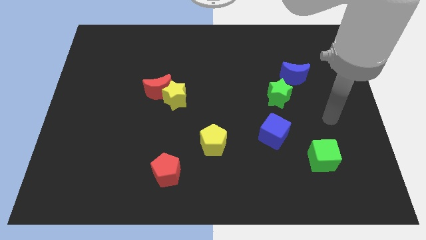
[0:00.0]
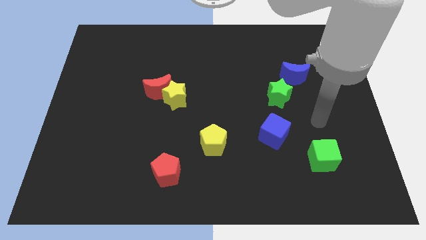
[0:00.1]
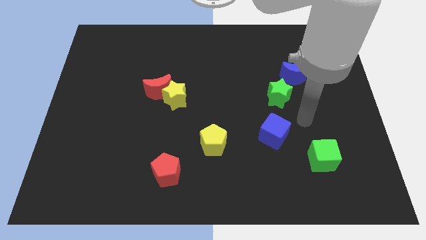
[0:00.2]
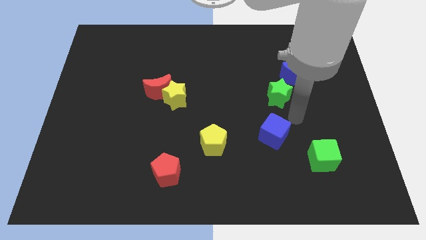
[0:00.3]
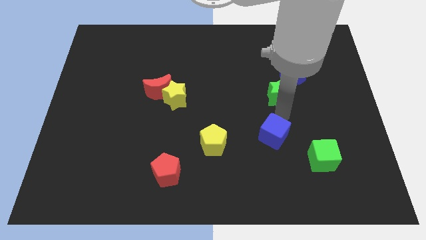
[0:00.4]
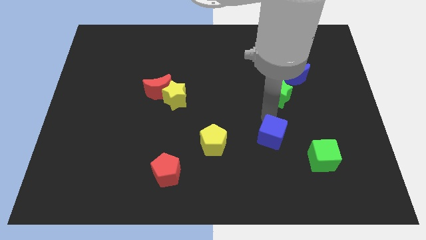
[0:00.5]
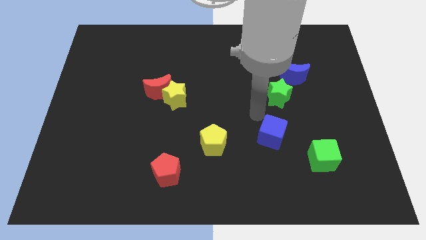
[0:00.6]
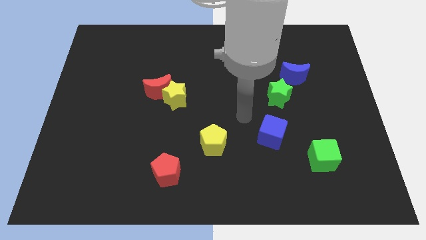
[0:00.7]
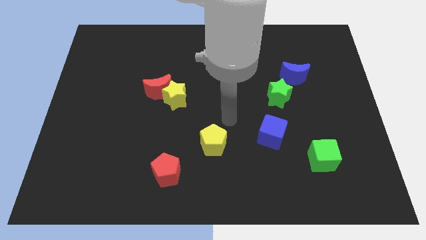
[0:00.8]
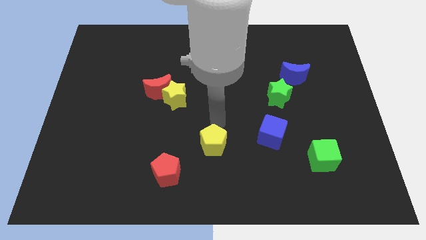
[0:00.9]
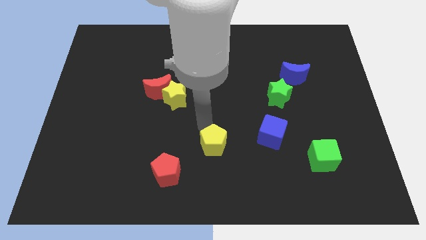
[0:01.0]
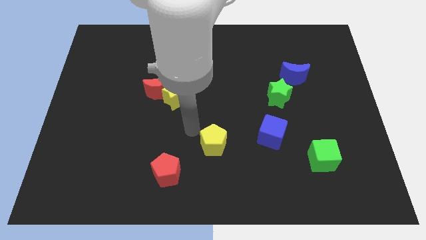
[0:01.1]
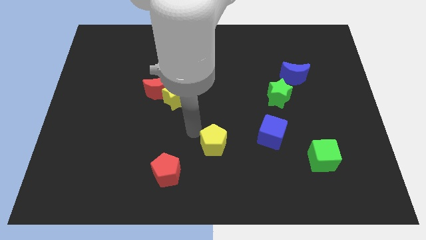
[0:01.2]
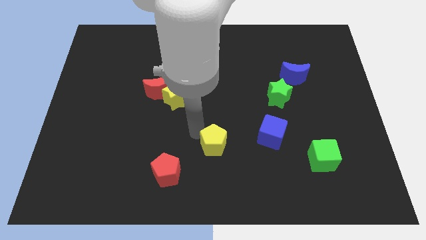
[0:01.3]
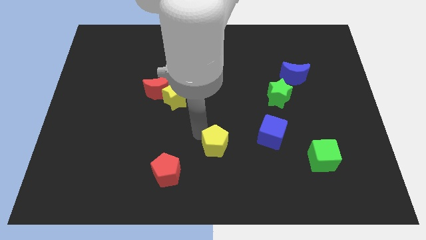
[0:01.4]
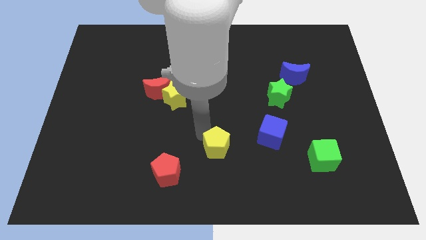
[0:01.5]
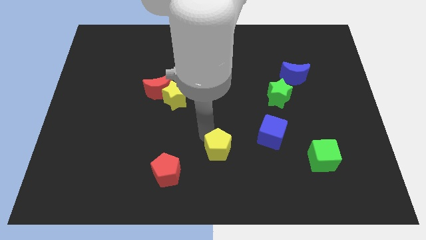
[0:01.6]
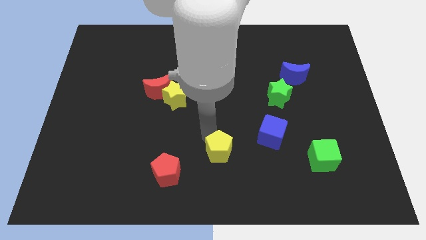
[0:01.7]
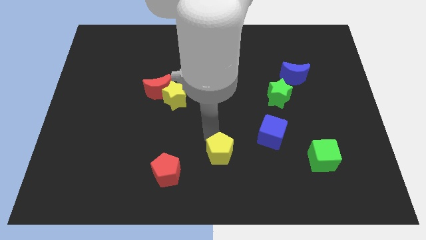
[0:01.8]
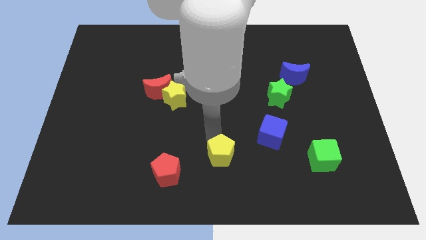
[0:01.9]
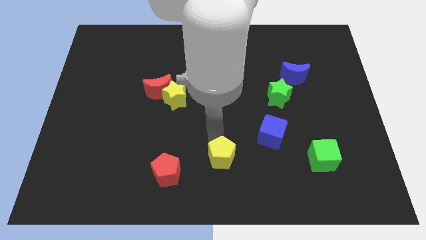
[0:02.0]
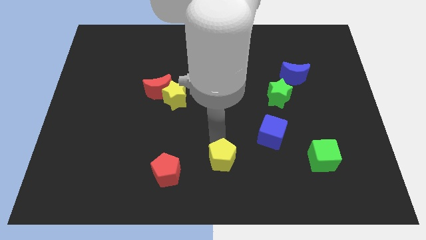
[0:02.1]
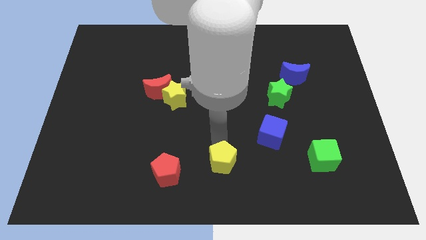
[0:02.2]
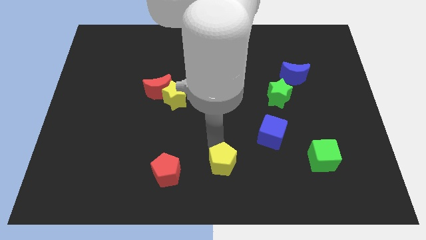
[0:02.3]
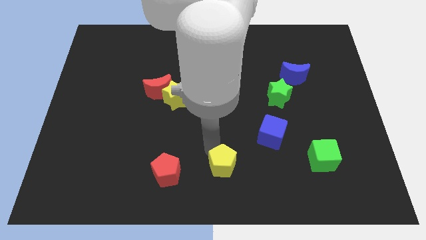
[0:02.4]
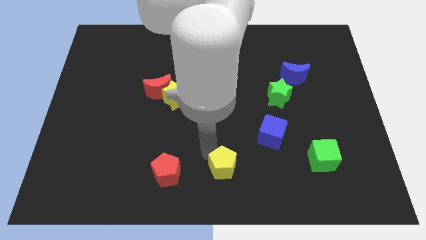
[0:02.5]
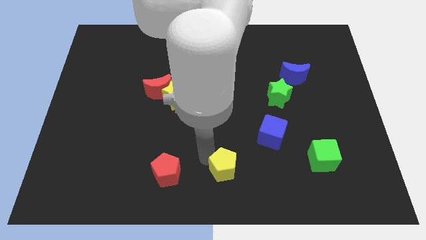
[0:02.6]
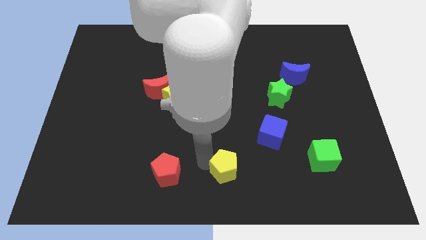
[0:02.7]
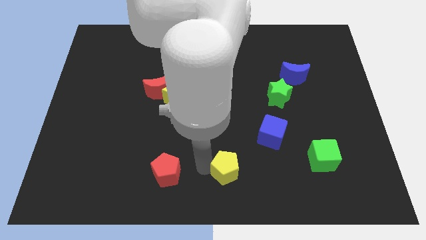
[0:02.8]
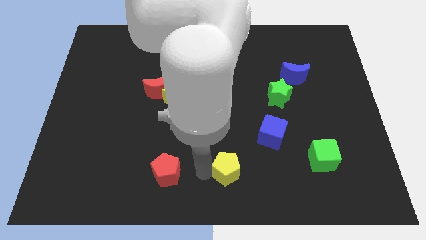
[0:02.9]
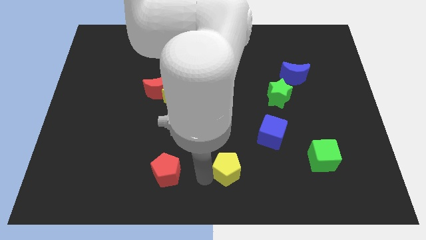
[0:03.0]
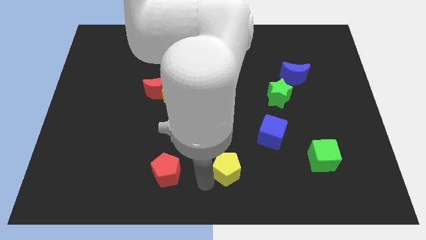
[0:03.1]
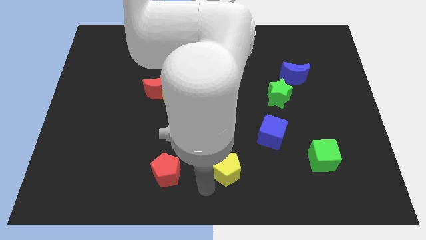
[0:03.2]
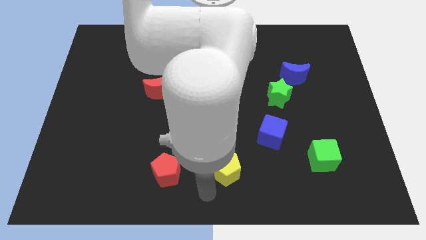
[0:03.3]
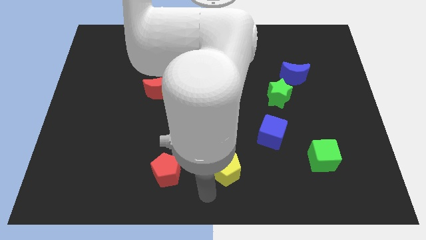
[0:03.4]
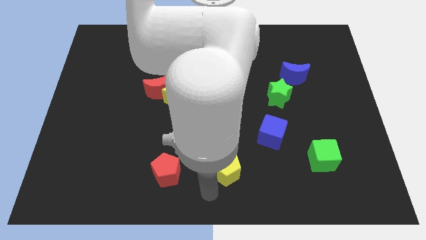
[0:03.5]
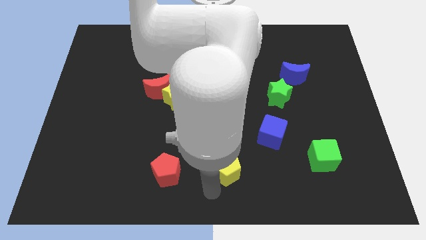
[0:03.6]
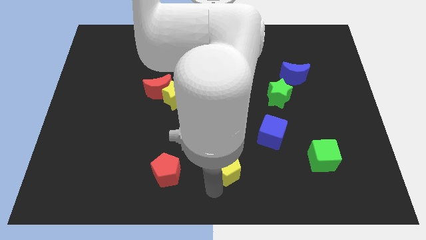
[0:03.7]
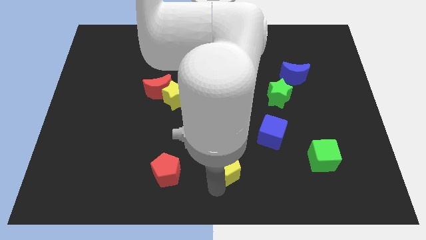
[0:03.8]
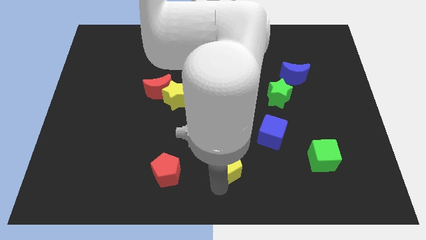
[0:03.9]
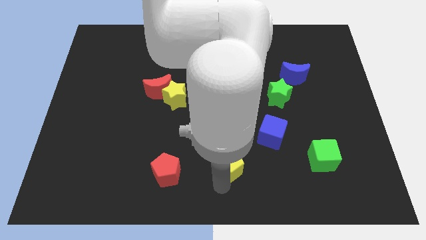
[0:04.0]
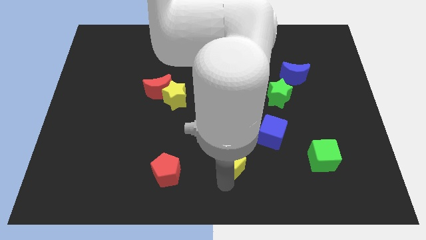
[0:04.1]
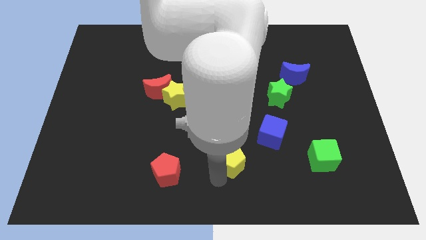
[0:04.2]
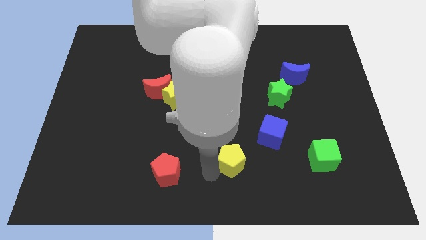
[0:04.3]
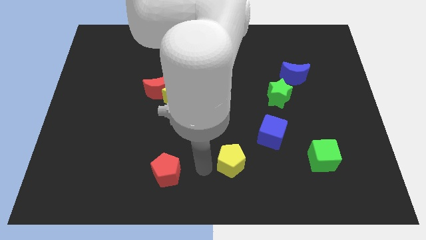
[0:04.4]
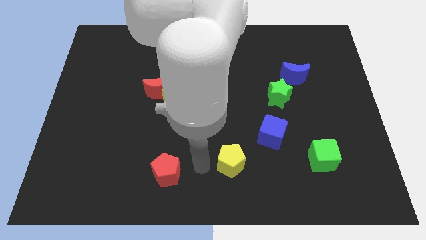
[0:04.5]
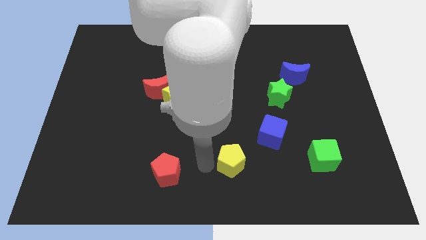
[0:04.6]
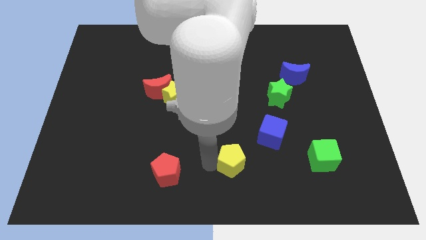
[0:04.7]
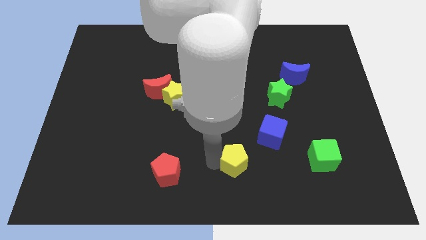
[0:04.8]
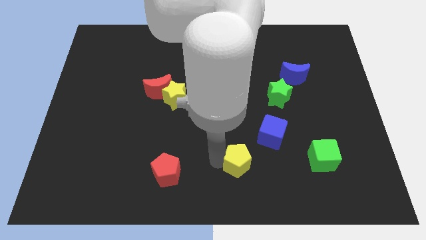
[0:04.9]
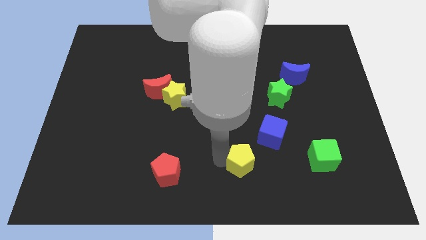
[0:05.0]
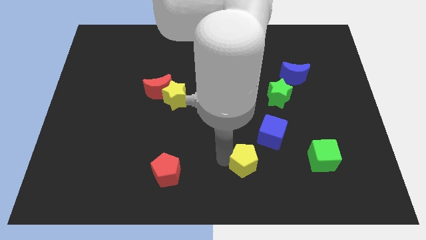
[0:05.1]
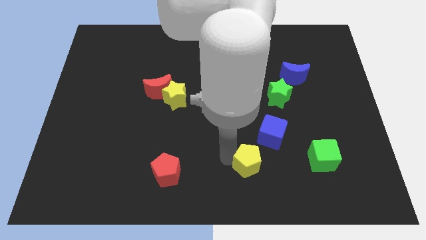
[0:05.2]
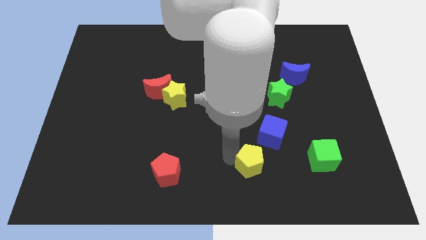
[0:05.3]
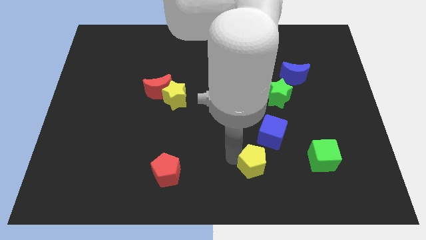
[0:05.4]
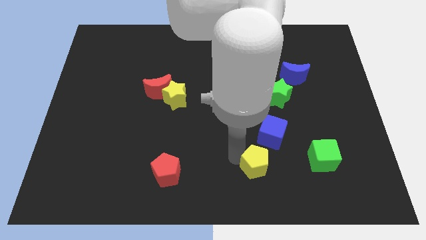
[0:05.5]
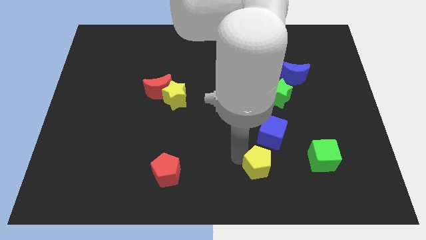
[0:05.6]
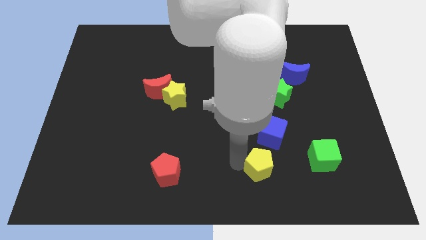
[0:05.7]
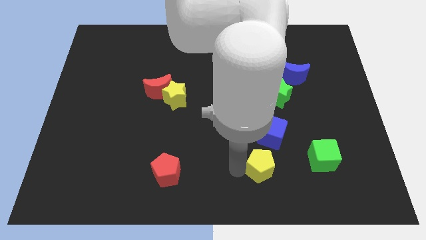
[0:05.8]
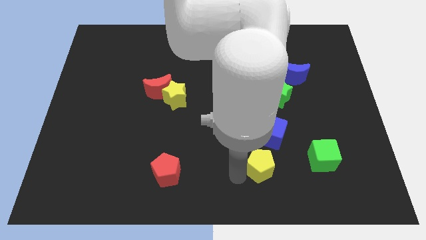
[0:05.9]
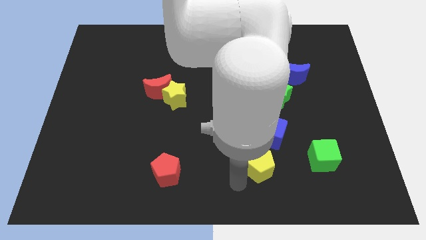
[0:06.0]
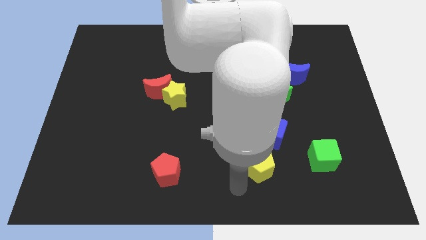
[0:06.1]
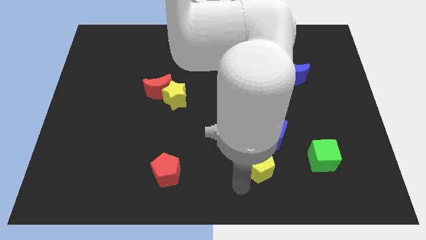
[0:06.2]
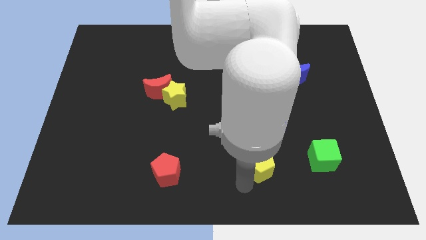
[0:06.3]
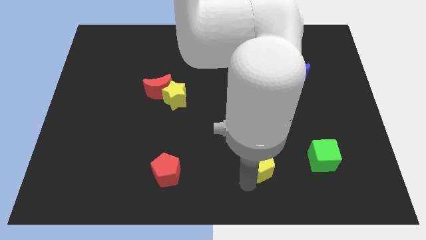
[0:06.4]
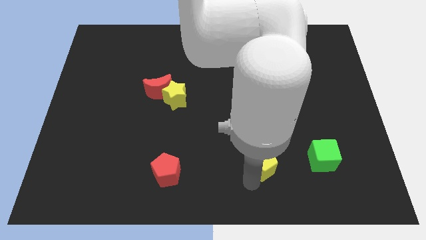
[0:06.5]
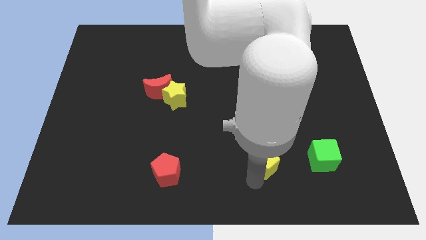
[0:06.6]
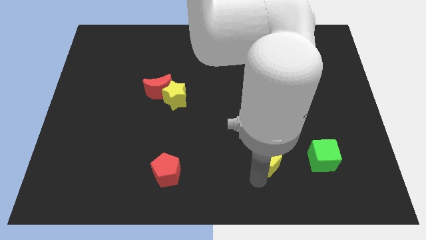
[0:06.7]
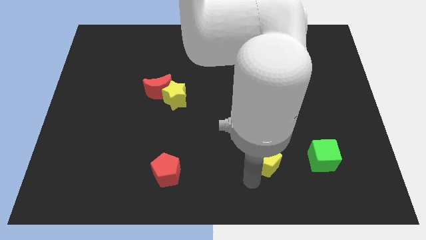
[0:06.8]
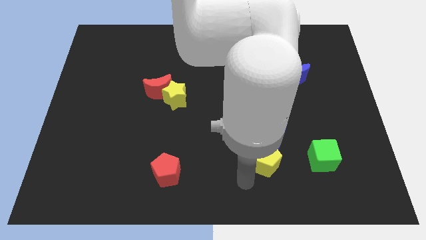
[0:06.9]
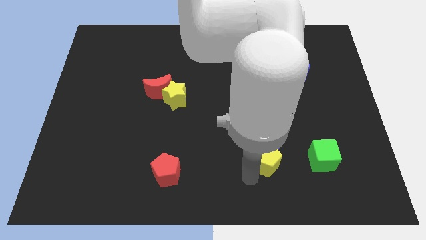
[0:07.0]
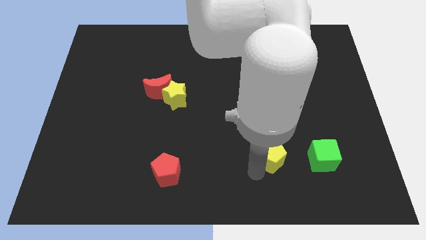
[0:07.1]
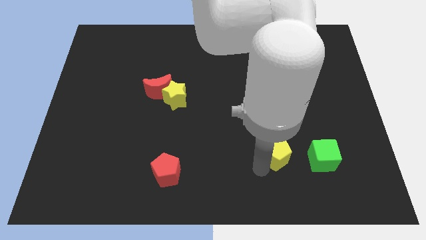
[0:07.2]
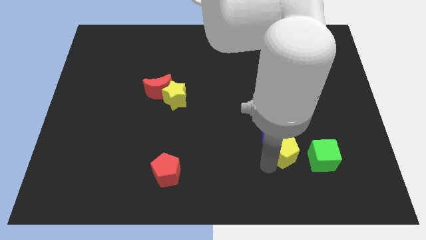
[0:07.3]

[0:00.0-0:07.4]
push the yellow pentagon to the bottom side of the green star
